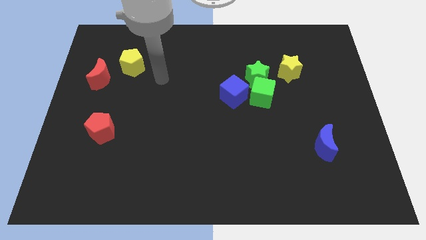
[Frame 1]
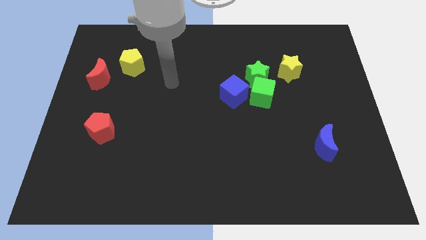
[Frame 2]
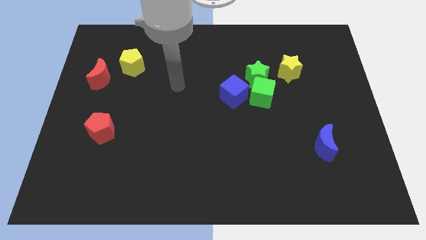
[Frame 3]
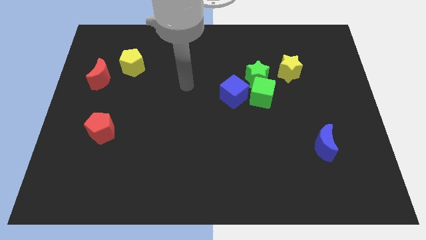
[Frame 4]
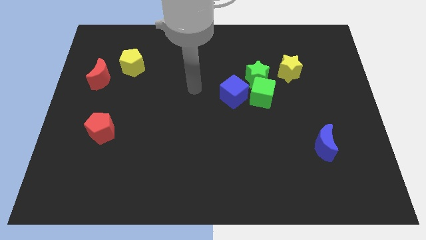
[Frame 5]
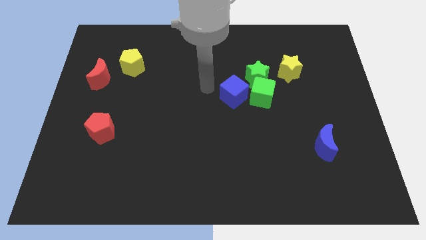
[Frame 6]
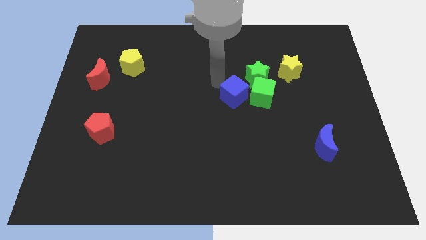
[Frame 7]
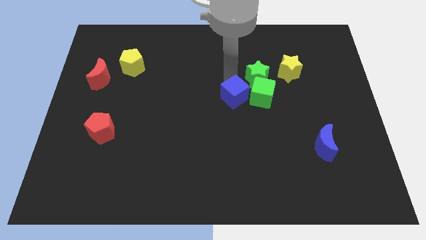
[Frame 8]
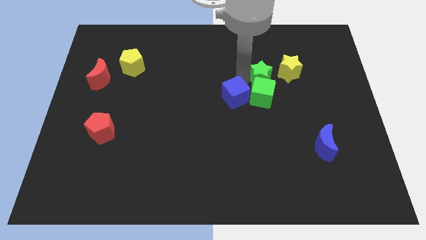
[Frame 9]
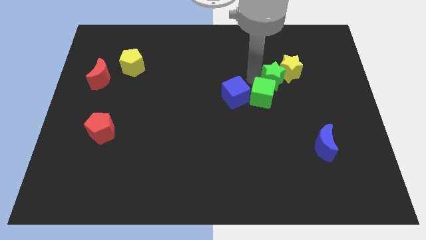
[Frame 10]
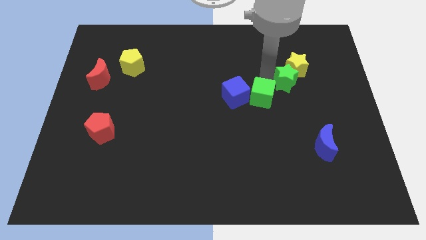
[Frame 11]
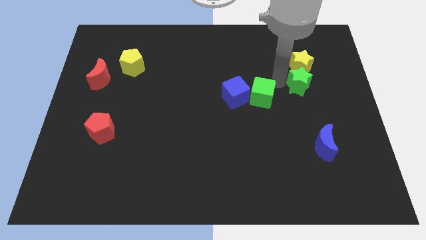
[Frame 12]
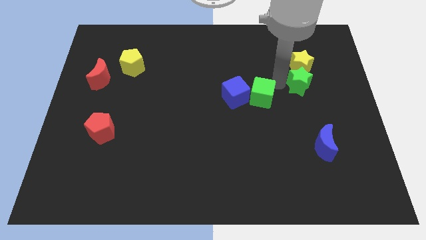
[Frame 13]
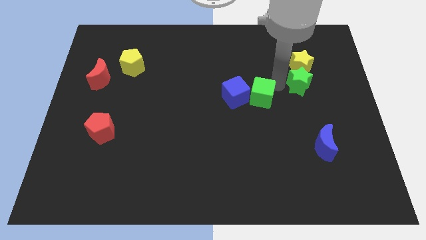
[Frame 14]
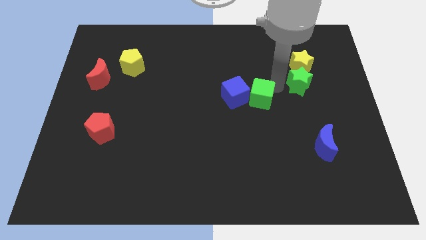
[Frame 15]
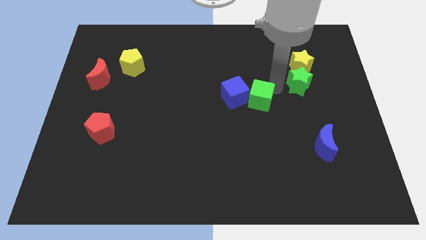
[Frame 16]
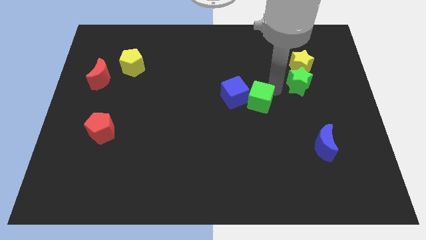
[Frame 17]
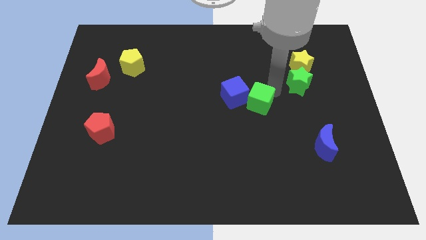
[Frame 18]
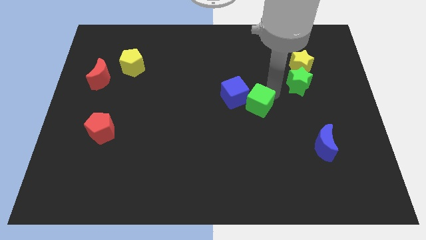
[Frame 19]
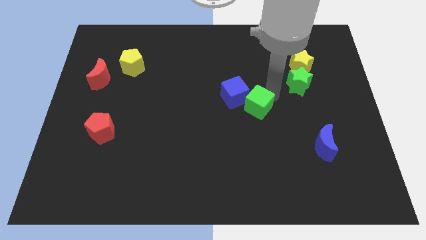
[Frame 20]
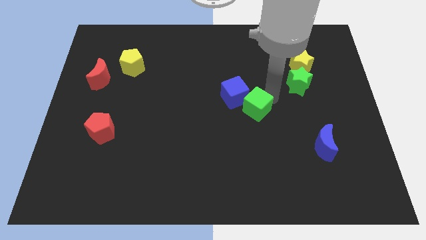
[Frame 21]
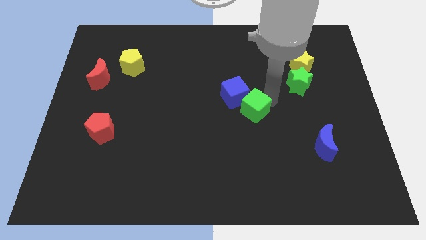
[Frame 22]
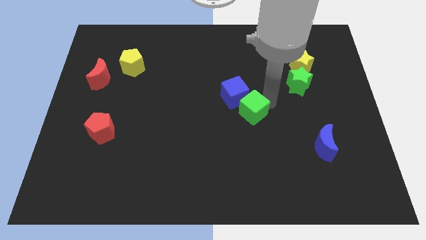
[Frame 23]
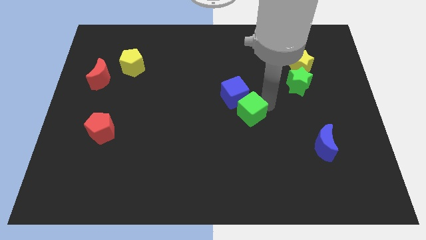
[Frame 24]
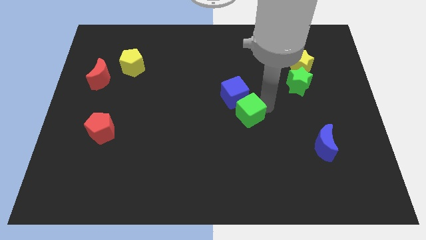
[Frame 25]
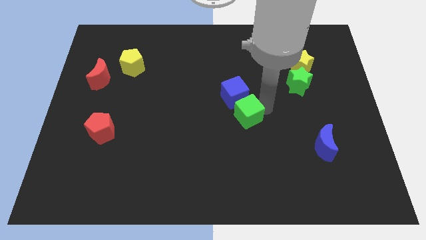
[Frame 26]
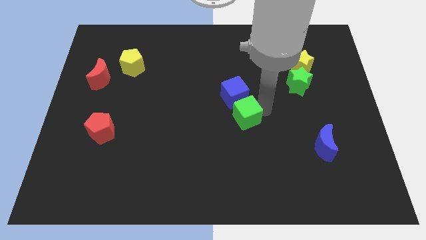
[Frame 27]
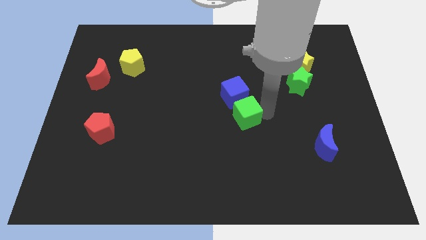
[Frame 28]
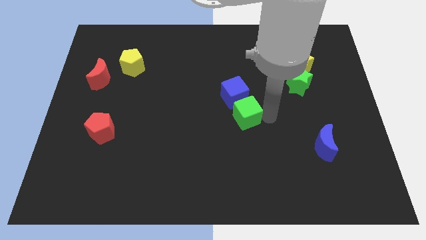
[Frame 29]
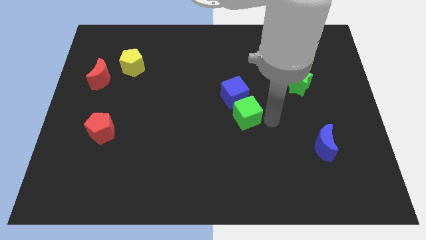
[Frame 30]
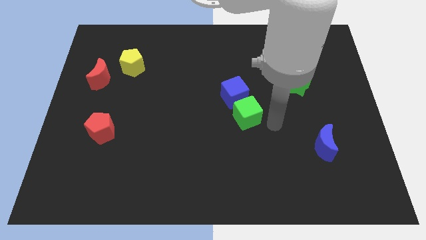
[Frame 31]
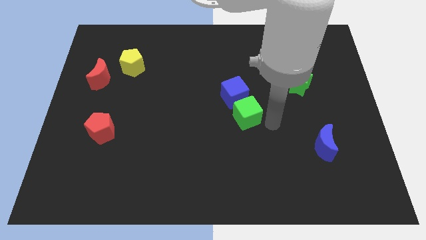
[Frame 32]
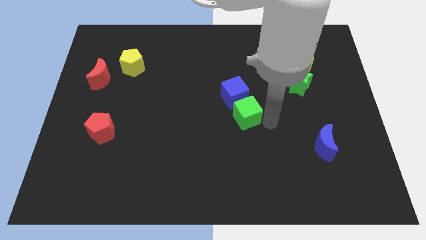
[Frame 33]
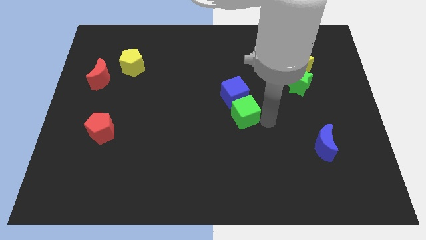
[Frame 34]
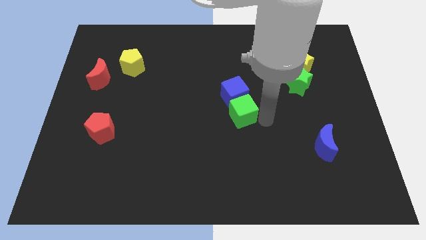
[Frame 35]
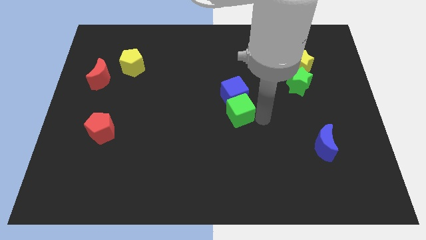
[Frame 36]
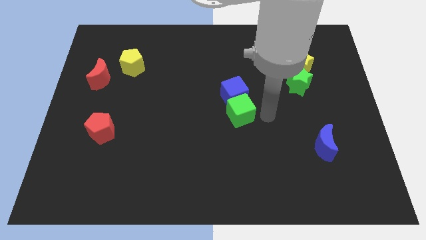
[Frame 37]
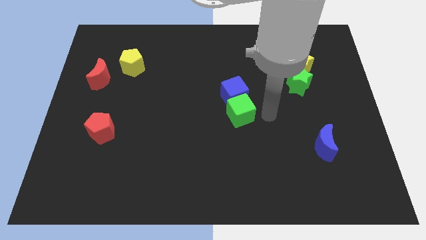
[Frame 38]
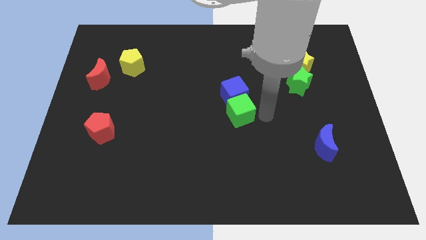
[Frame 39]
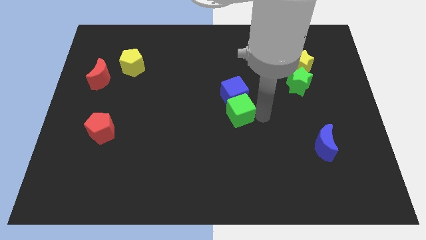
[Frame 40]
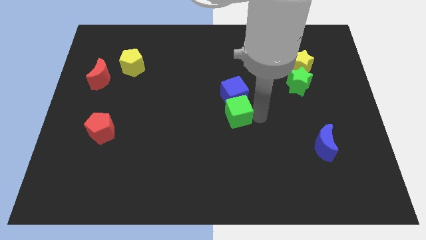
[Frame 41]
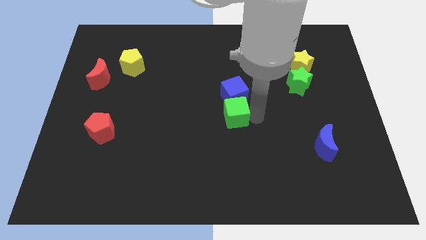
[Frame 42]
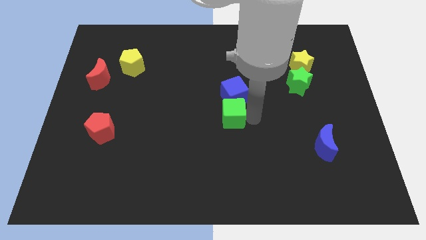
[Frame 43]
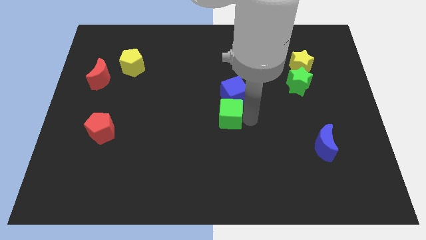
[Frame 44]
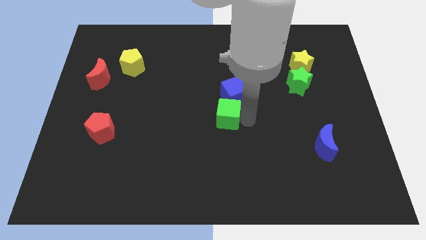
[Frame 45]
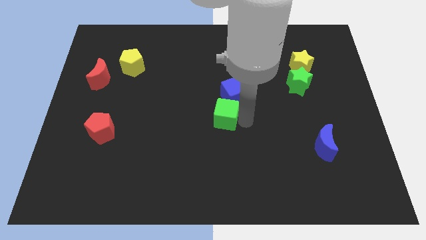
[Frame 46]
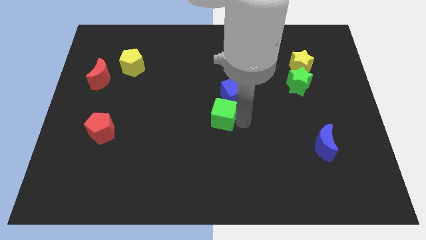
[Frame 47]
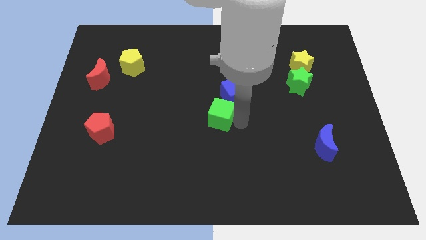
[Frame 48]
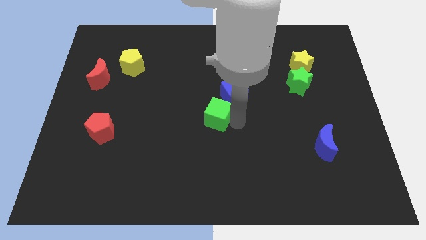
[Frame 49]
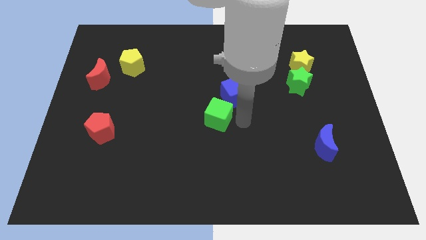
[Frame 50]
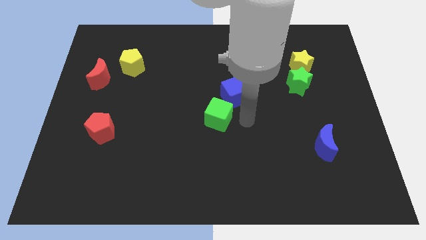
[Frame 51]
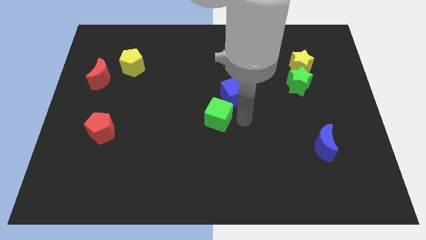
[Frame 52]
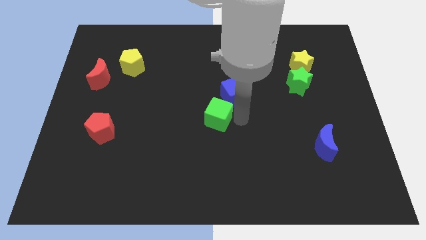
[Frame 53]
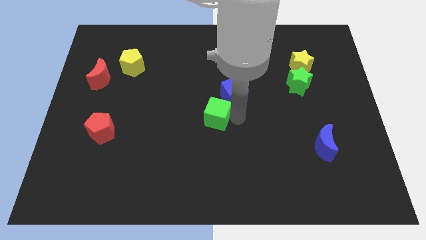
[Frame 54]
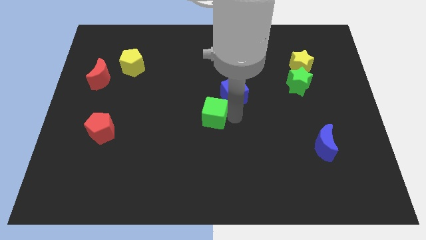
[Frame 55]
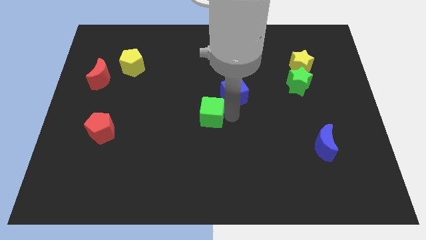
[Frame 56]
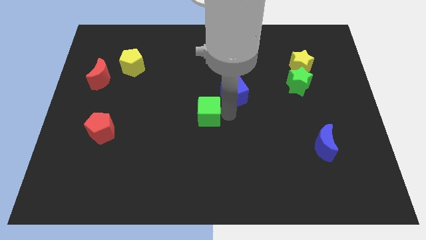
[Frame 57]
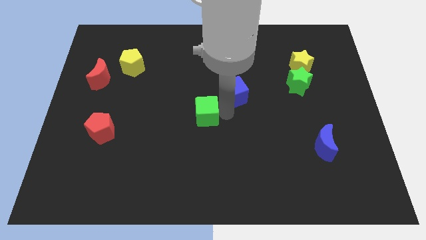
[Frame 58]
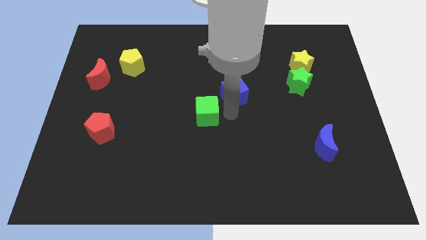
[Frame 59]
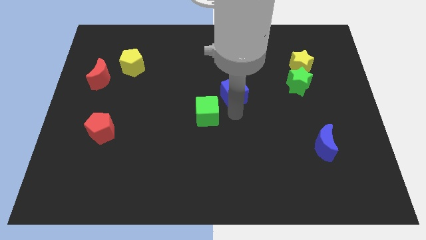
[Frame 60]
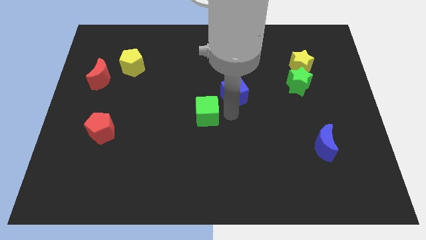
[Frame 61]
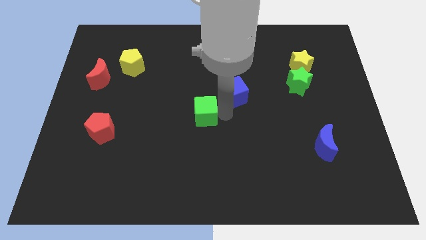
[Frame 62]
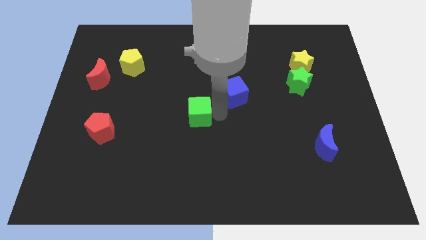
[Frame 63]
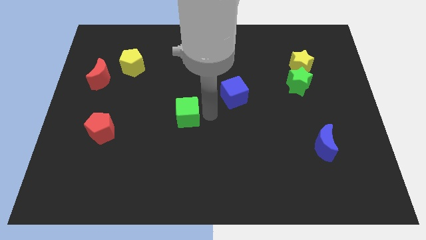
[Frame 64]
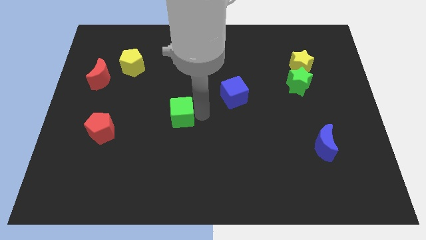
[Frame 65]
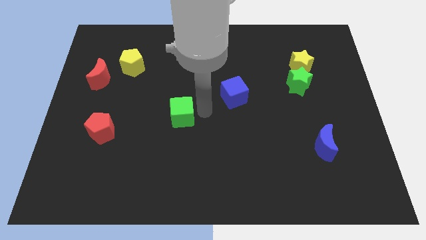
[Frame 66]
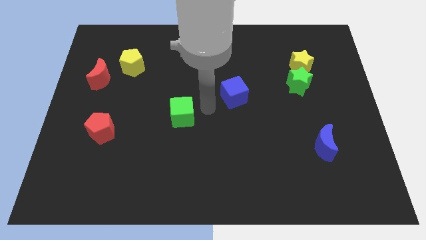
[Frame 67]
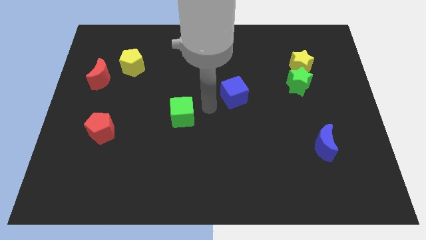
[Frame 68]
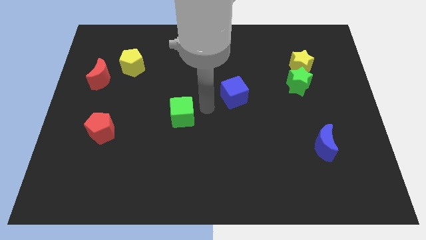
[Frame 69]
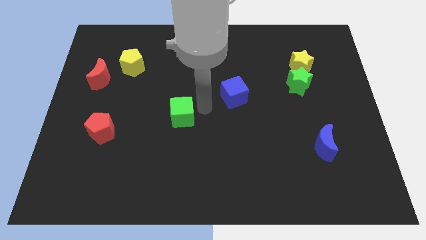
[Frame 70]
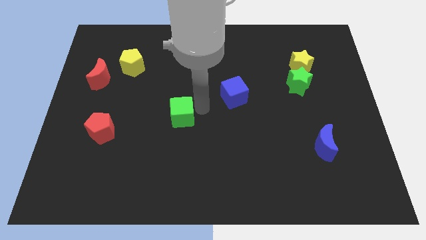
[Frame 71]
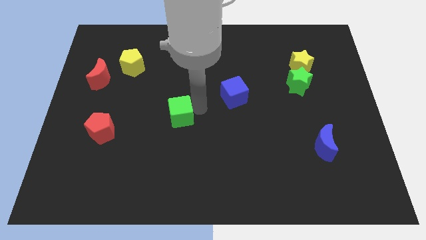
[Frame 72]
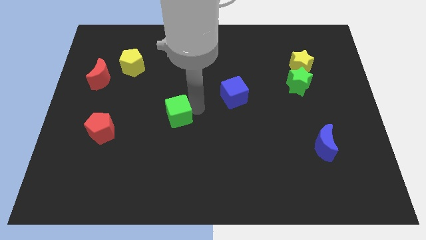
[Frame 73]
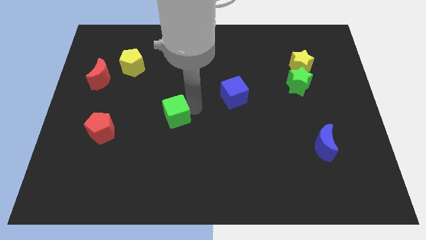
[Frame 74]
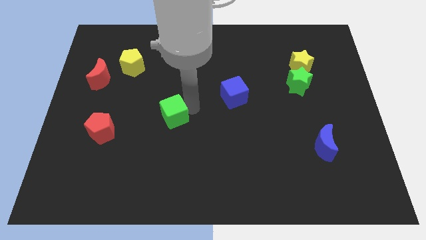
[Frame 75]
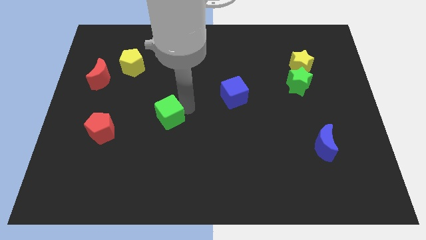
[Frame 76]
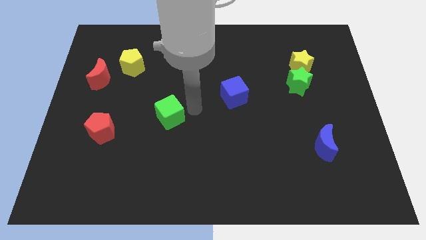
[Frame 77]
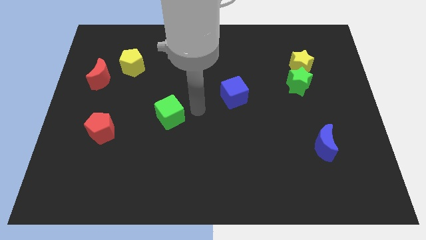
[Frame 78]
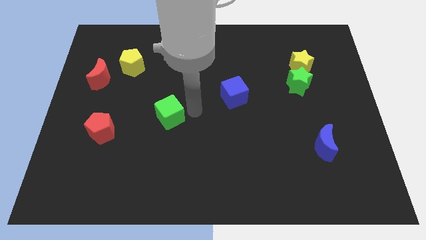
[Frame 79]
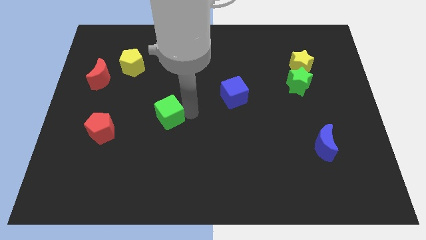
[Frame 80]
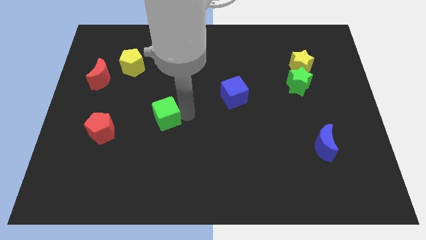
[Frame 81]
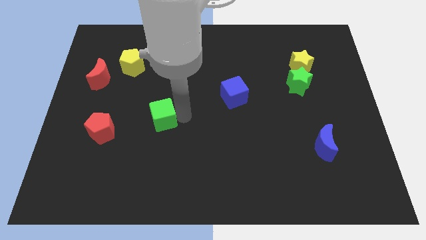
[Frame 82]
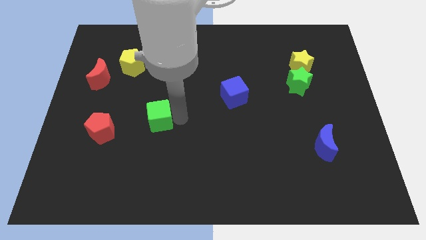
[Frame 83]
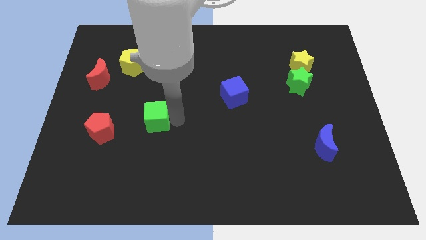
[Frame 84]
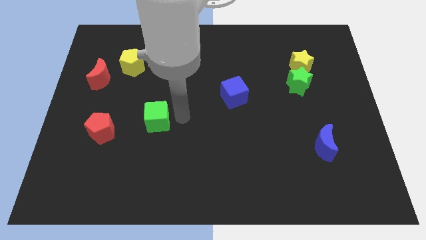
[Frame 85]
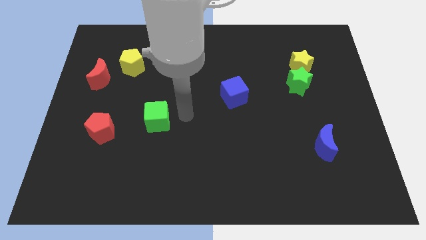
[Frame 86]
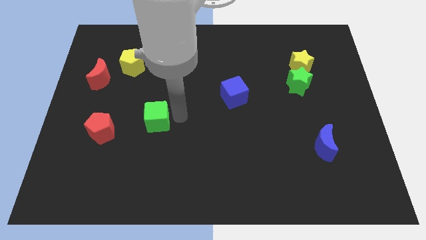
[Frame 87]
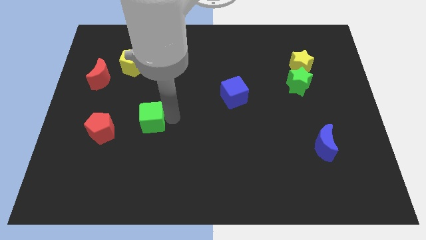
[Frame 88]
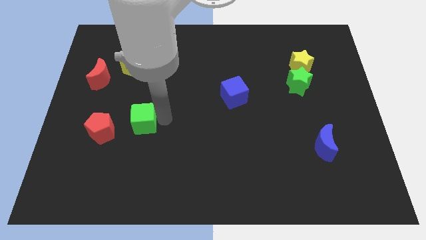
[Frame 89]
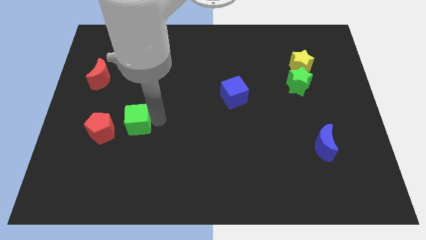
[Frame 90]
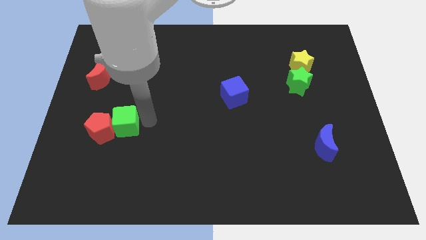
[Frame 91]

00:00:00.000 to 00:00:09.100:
put the green cube next to the red pentagon
